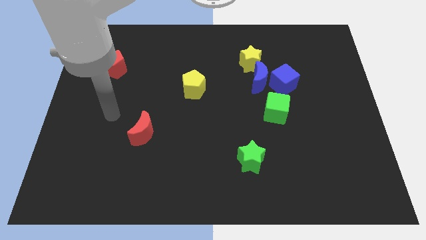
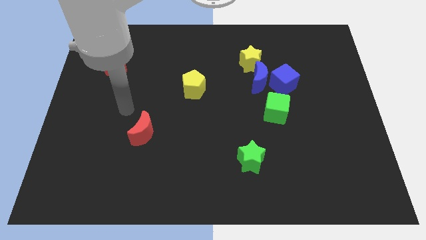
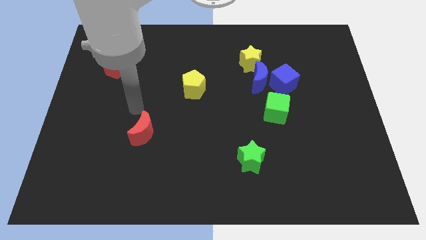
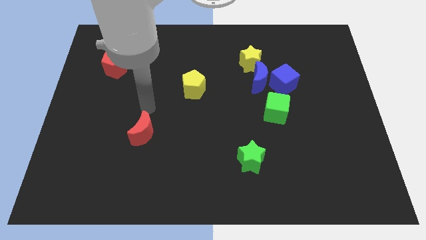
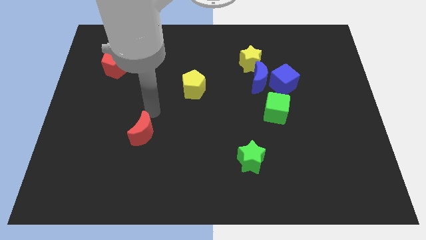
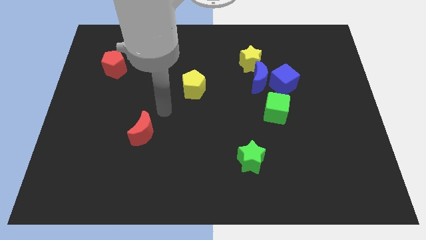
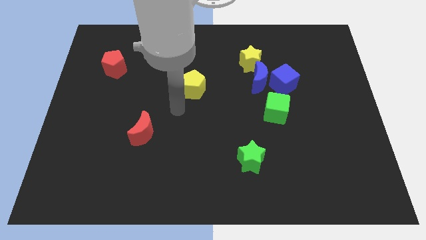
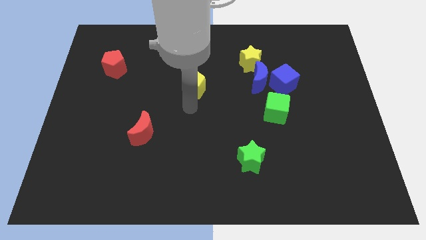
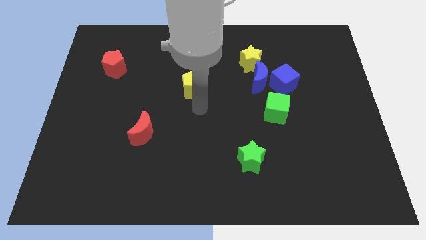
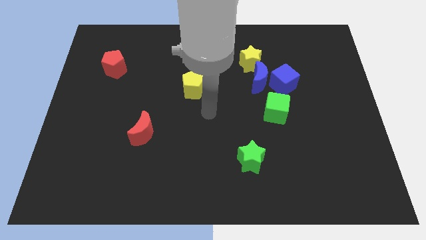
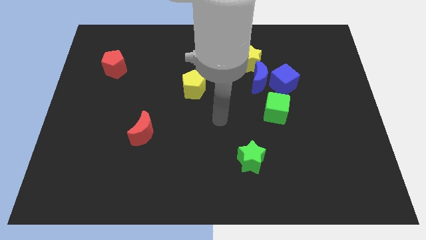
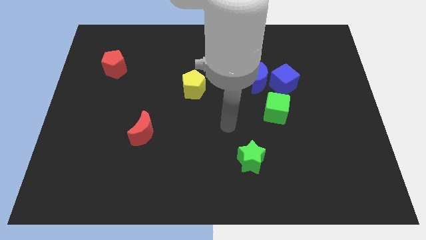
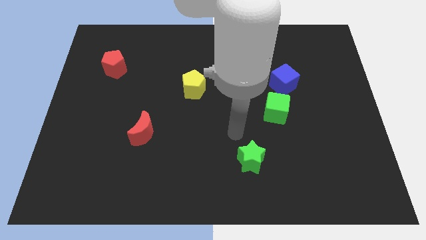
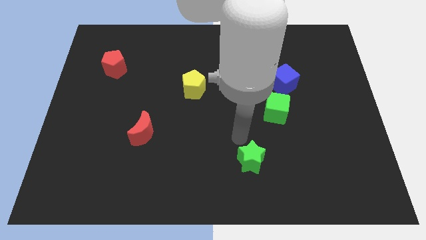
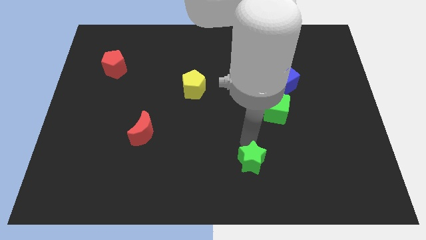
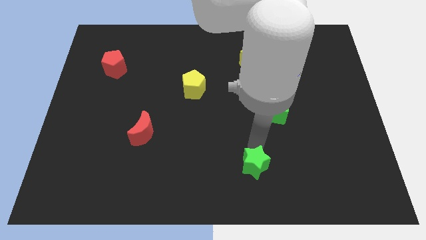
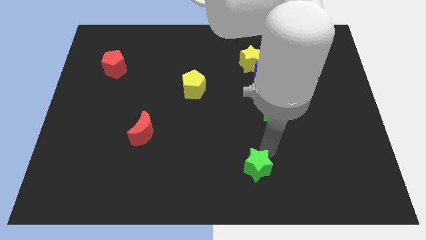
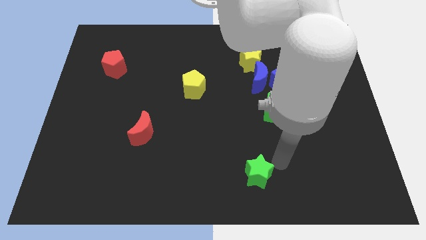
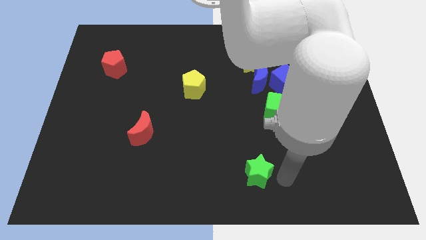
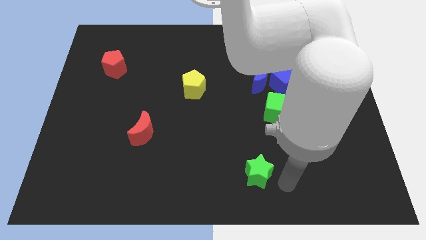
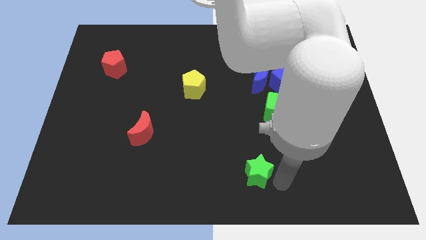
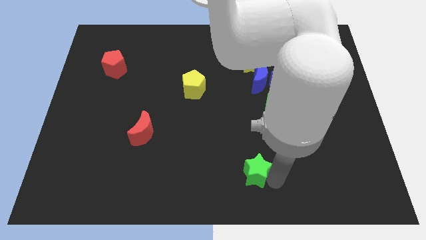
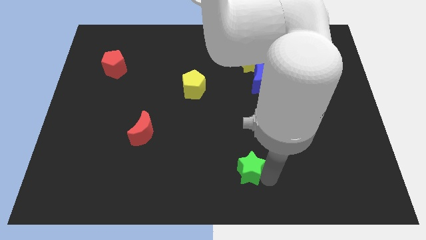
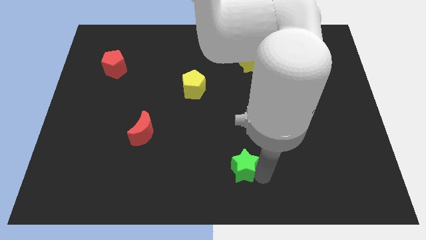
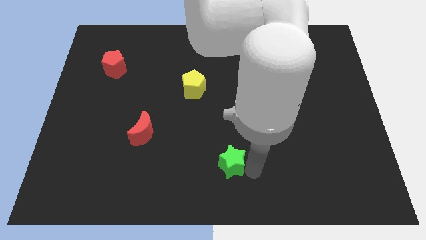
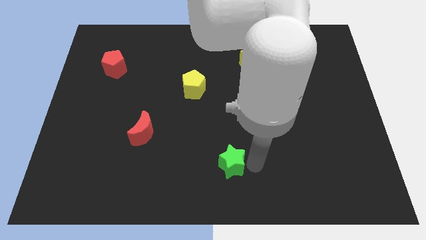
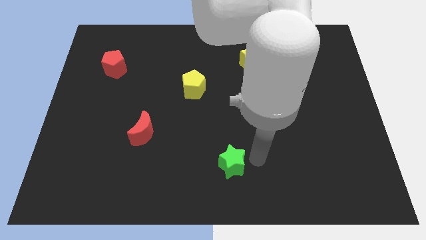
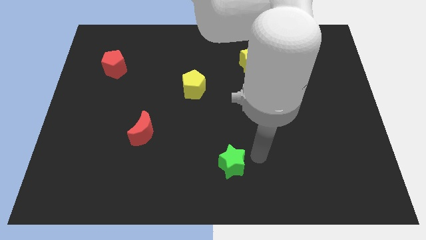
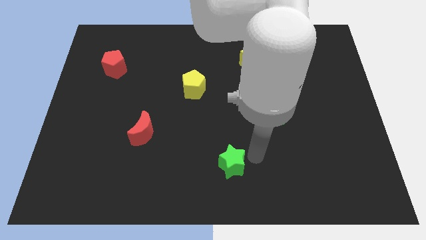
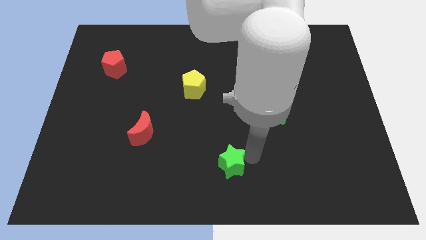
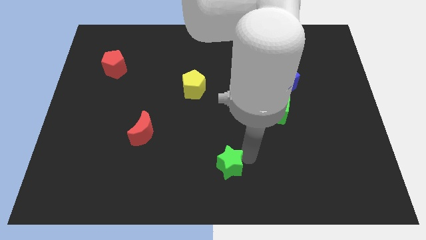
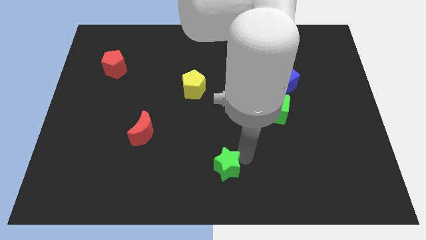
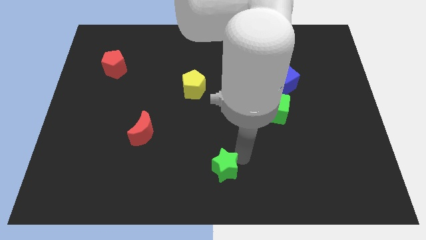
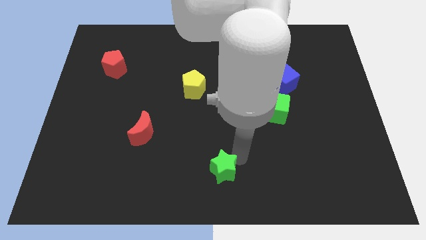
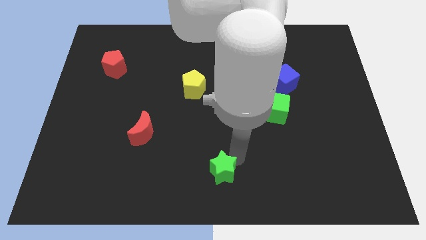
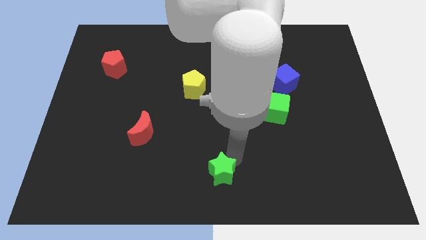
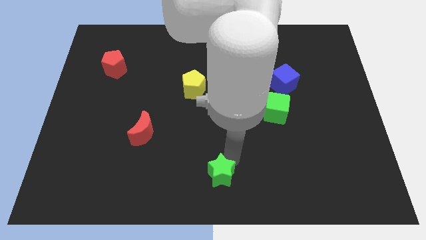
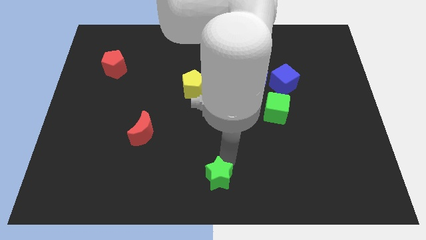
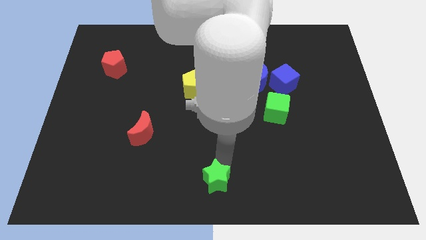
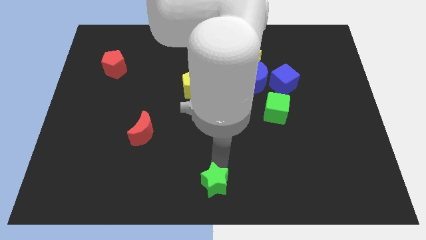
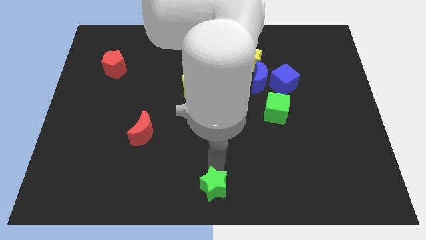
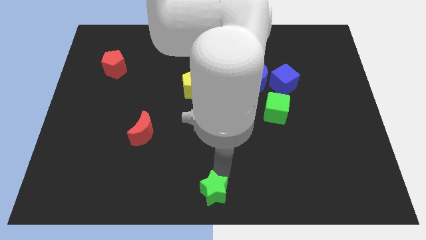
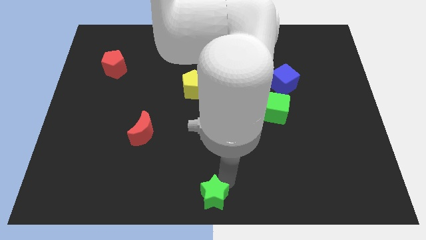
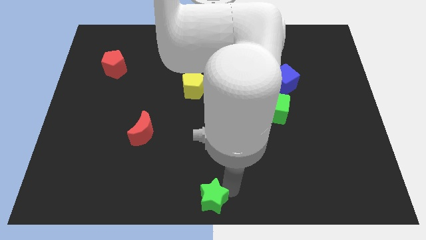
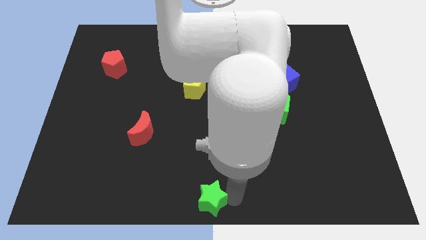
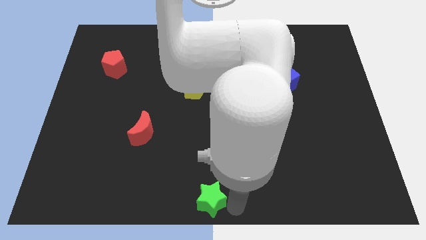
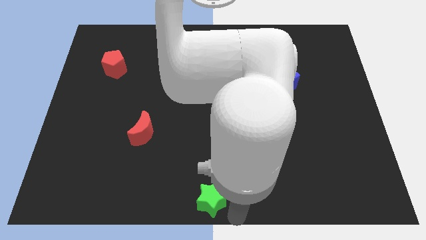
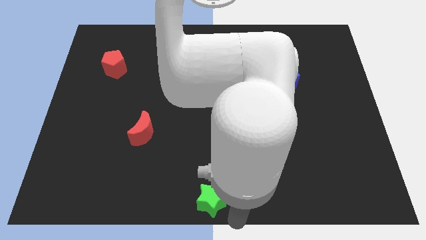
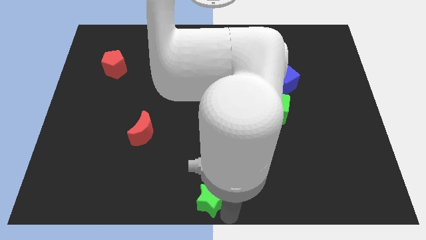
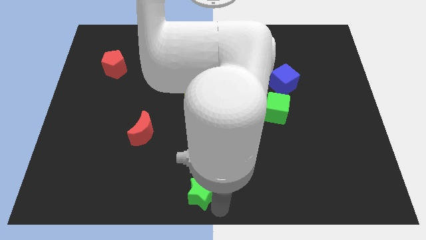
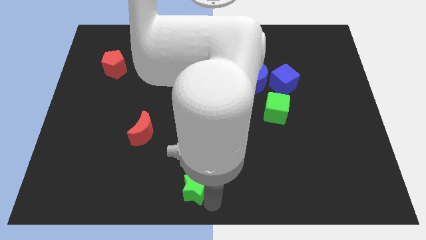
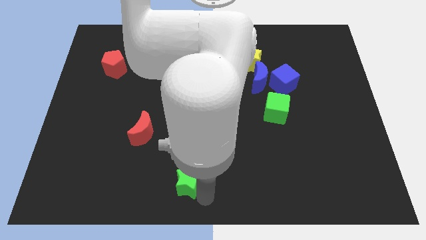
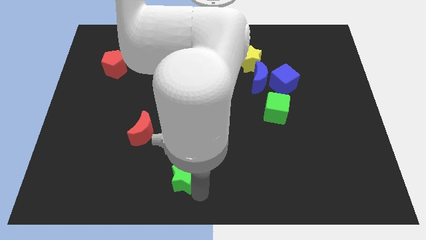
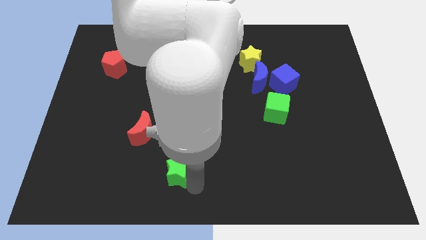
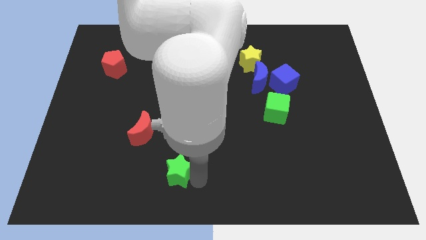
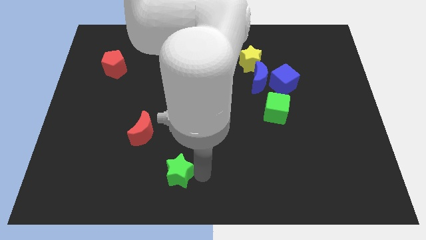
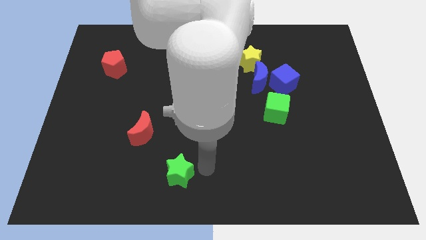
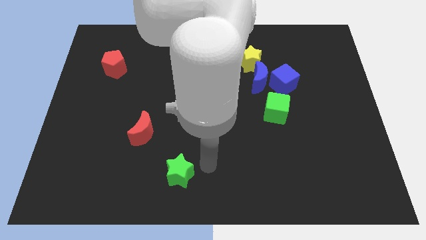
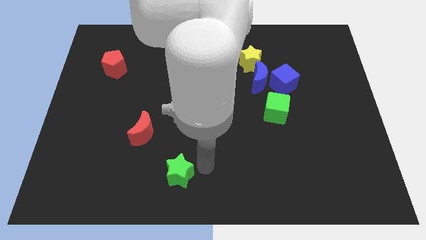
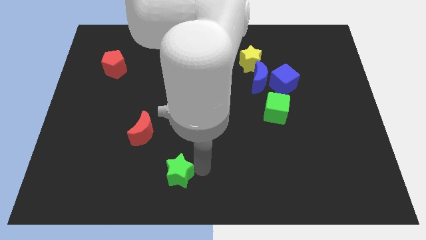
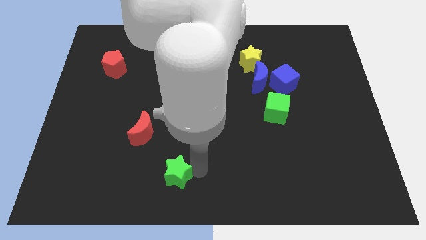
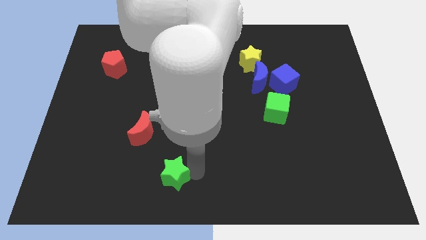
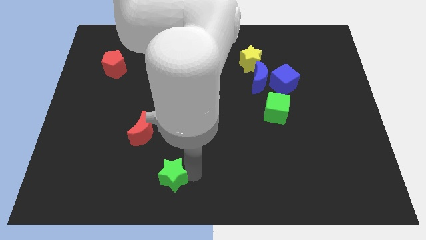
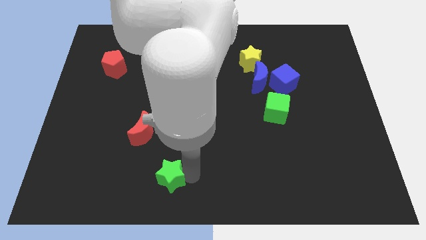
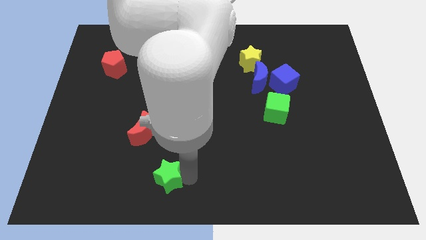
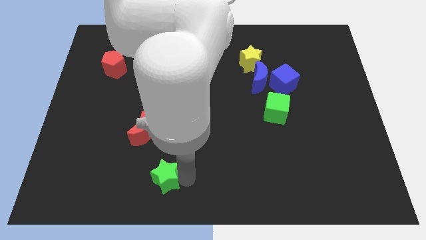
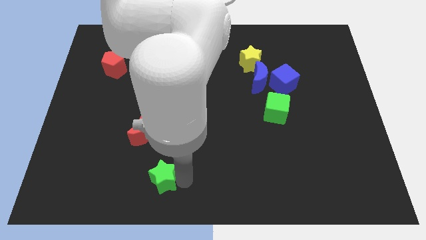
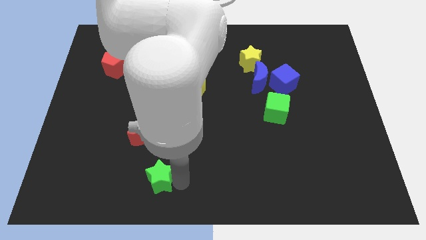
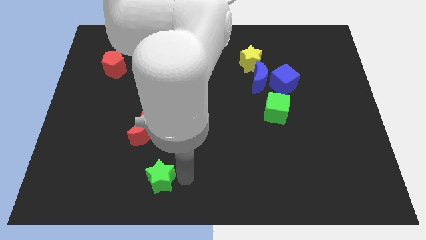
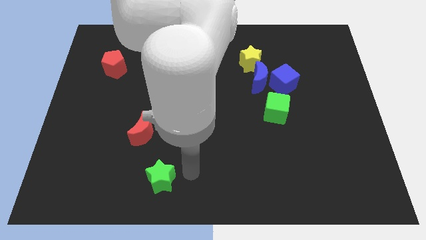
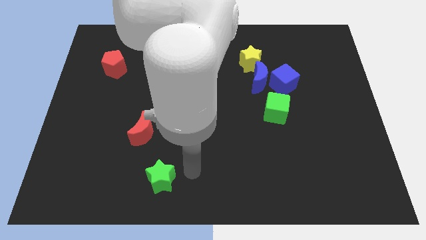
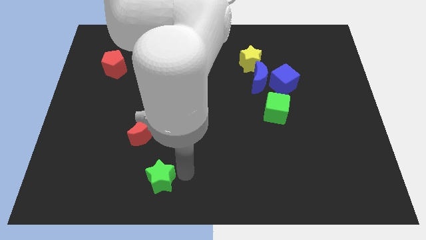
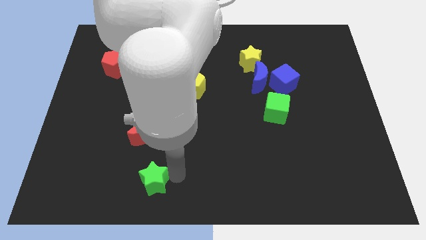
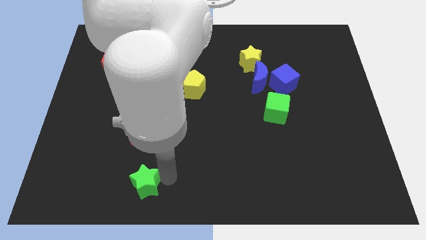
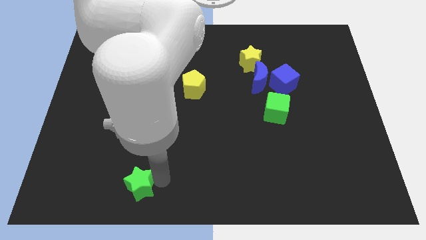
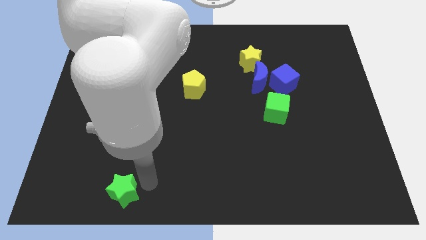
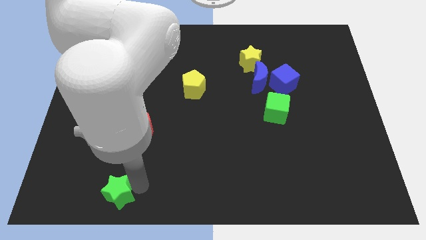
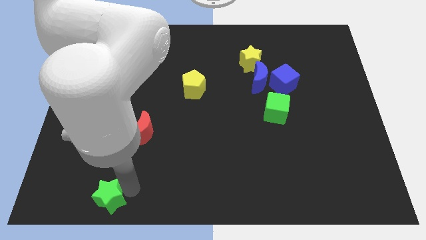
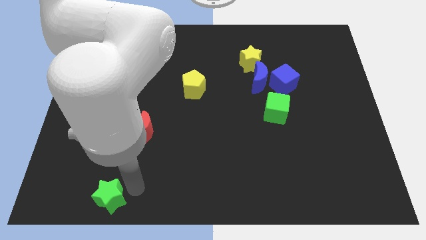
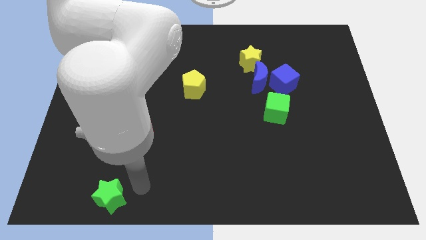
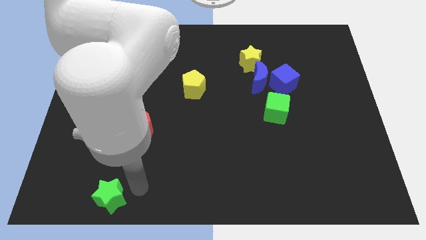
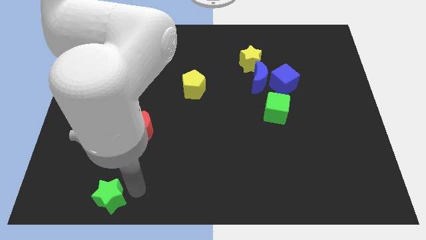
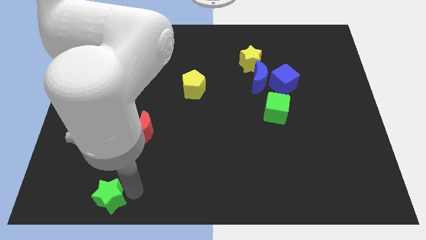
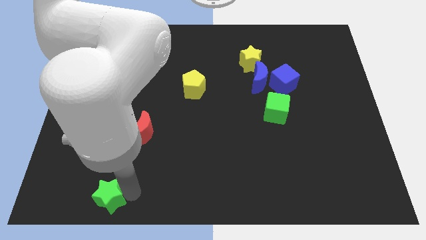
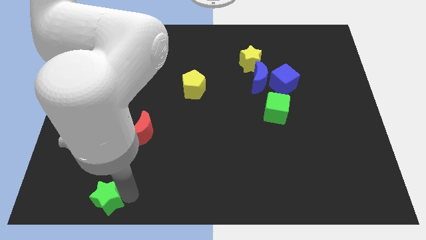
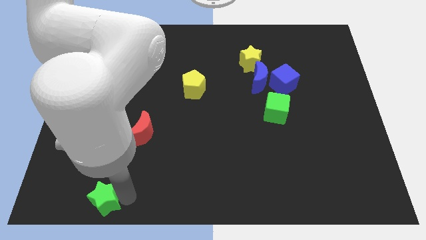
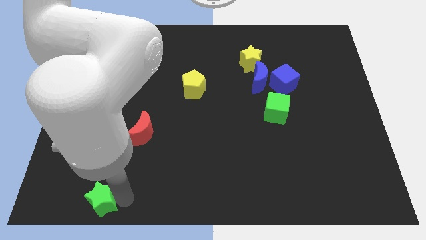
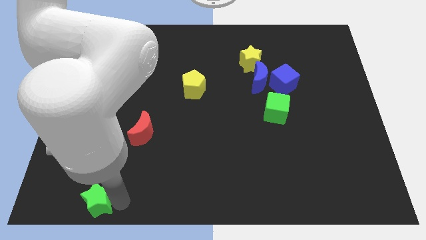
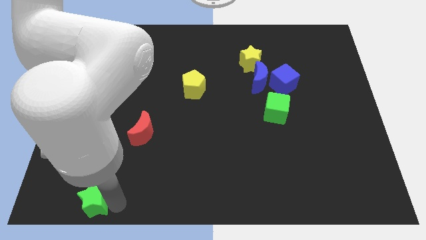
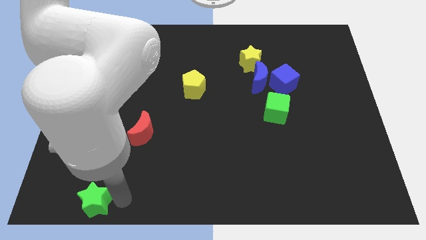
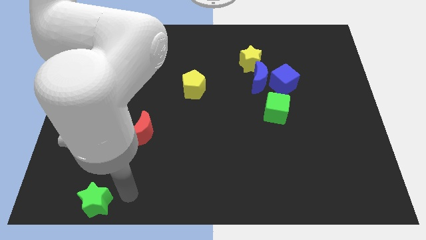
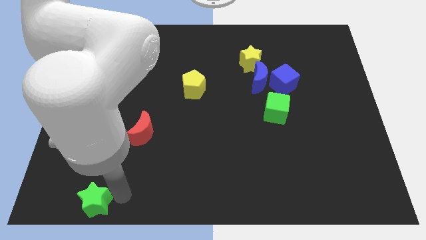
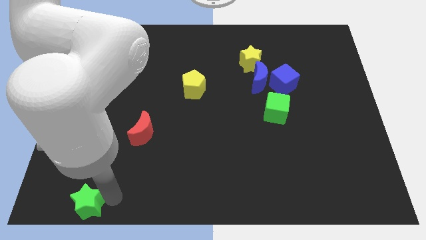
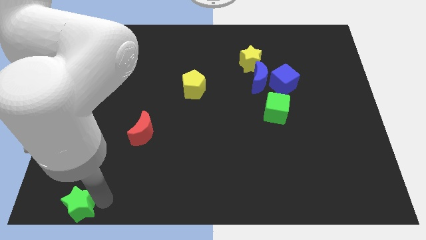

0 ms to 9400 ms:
put the green star to the lower left corner
